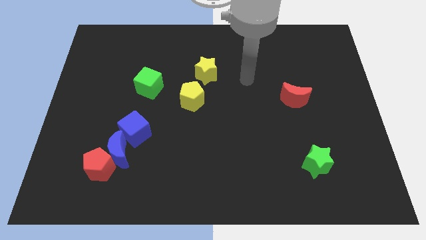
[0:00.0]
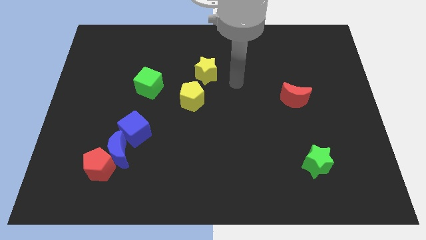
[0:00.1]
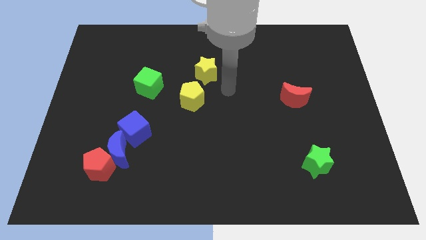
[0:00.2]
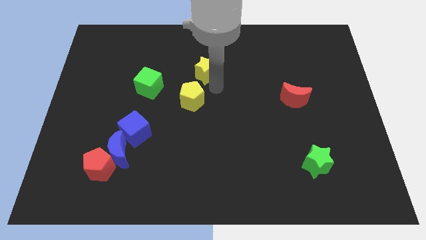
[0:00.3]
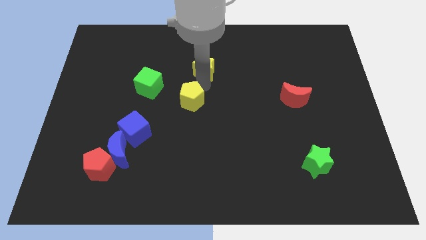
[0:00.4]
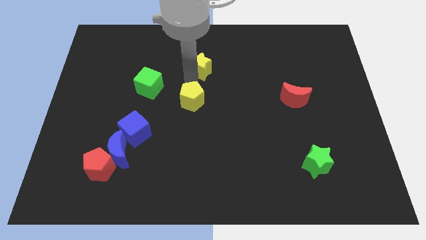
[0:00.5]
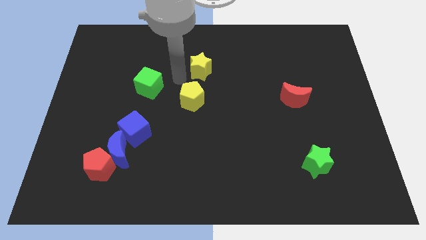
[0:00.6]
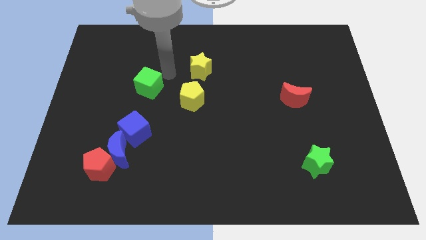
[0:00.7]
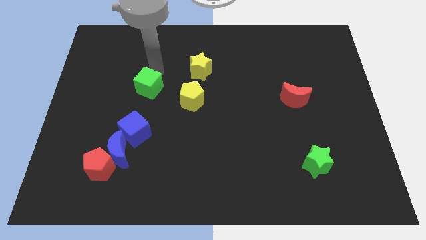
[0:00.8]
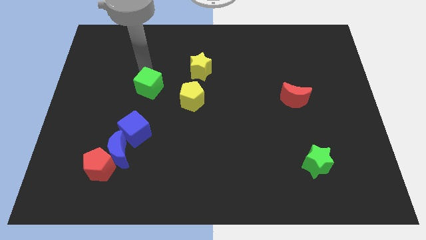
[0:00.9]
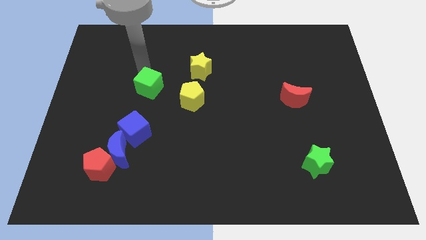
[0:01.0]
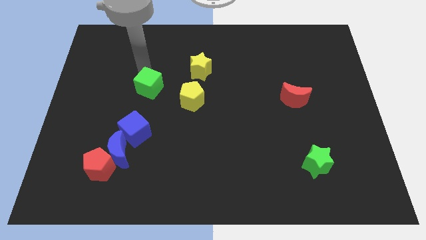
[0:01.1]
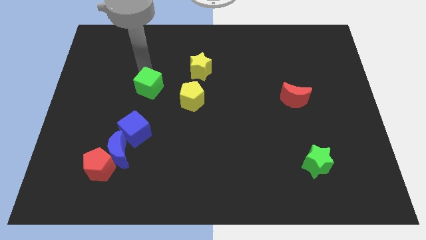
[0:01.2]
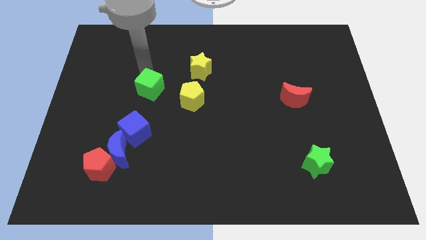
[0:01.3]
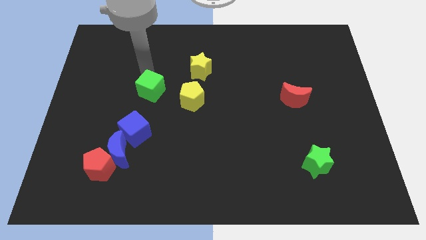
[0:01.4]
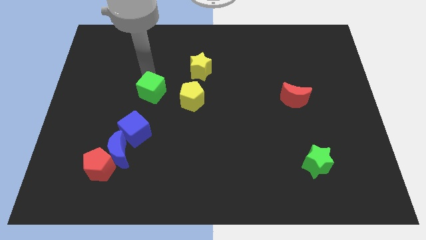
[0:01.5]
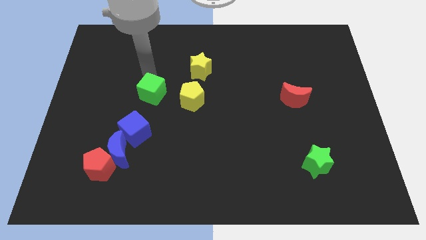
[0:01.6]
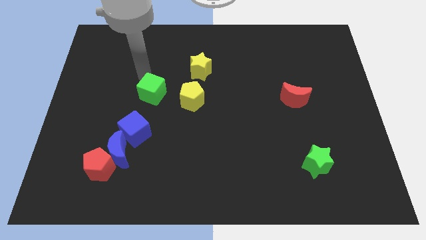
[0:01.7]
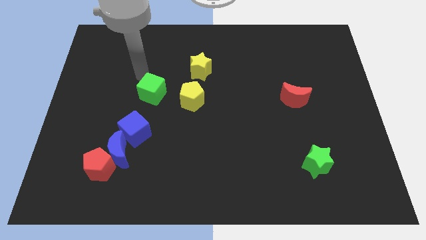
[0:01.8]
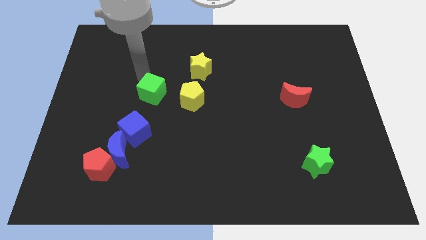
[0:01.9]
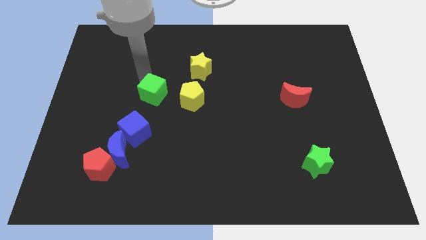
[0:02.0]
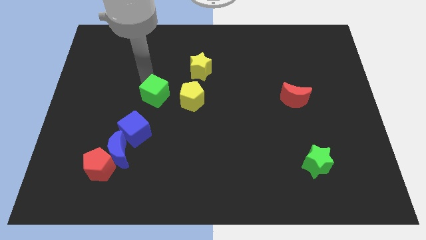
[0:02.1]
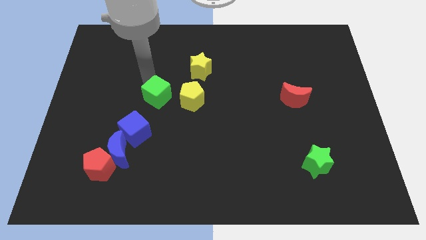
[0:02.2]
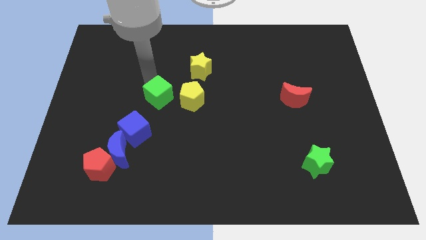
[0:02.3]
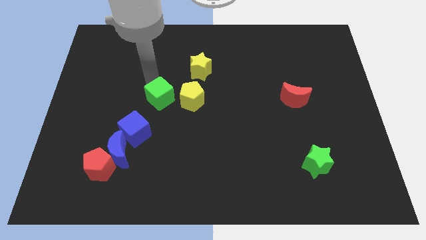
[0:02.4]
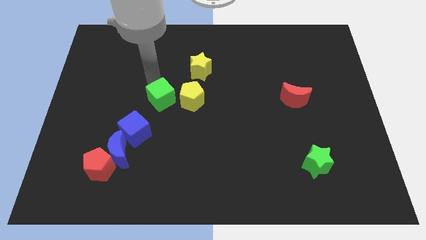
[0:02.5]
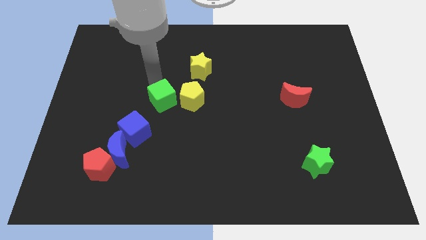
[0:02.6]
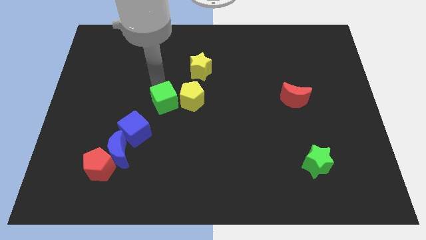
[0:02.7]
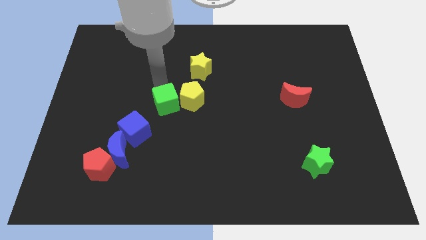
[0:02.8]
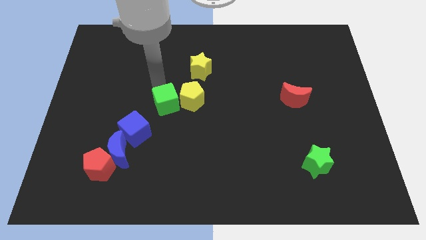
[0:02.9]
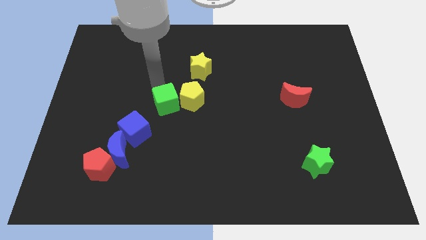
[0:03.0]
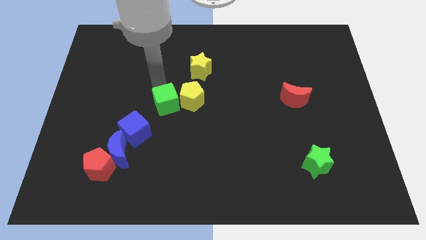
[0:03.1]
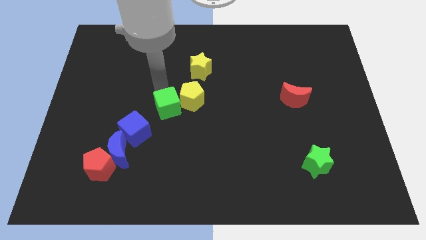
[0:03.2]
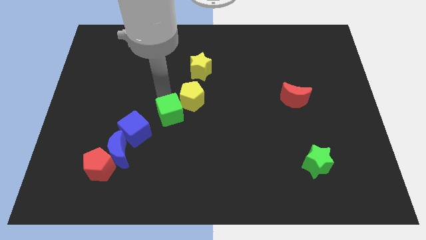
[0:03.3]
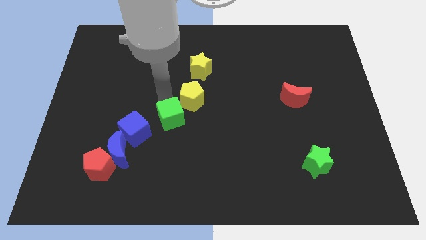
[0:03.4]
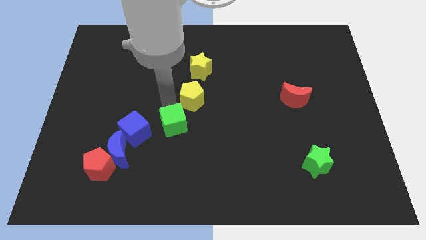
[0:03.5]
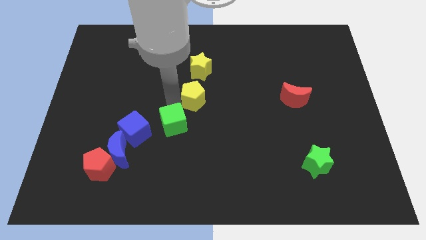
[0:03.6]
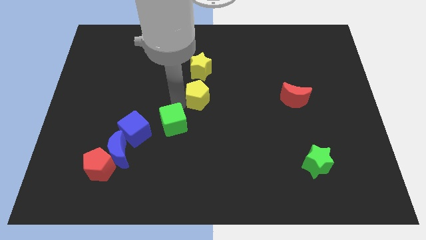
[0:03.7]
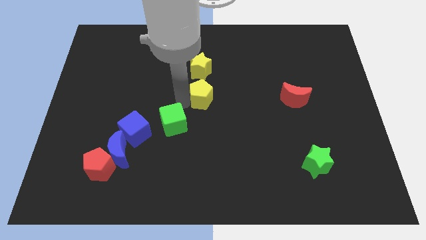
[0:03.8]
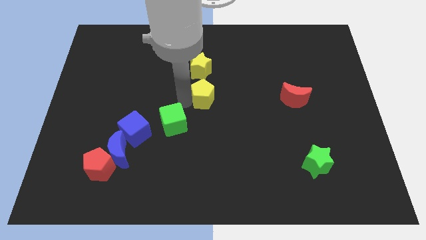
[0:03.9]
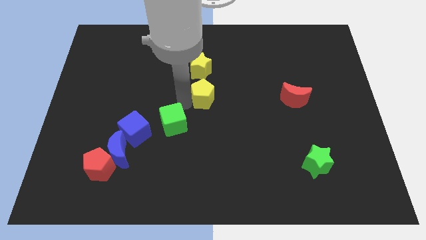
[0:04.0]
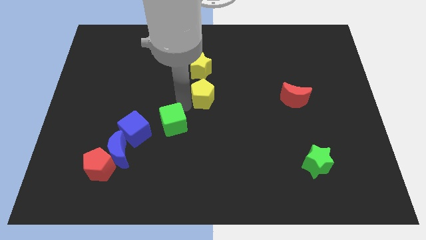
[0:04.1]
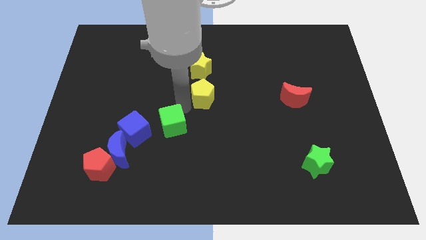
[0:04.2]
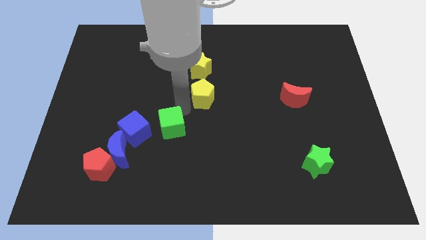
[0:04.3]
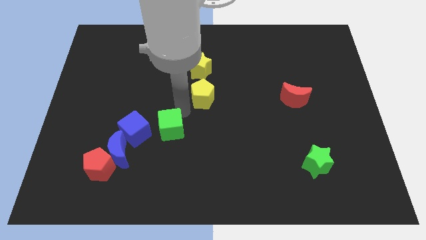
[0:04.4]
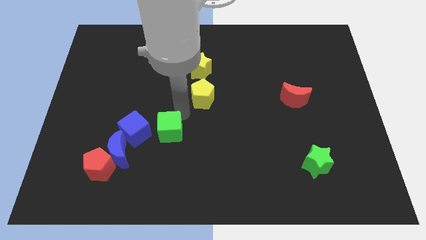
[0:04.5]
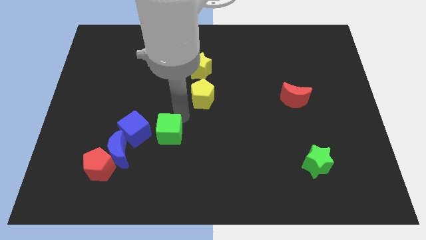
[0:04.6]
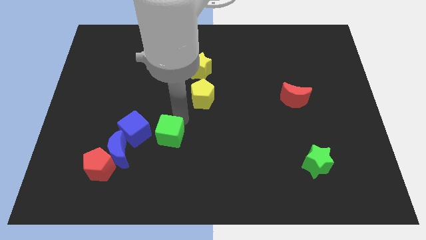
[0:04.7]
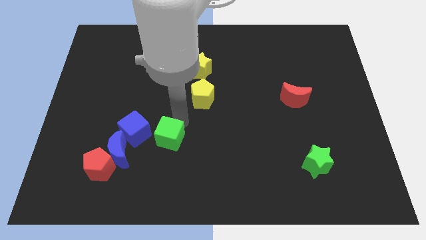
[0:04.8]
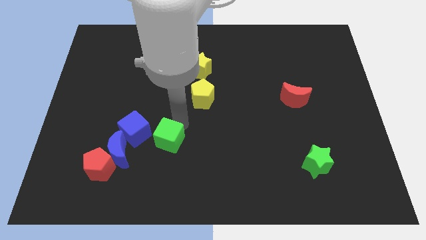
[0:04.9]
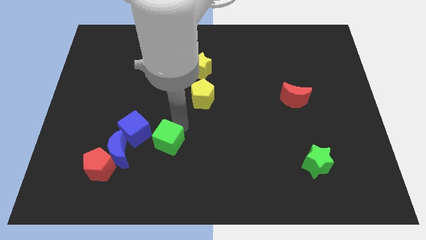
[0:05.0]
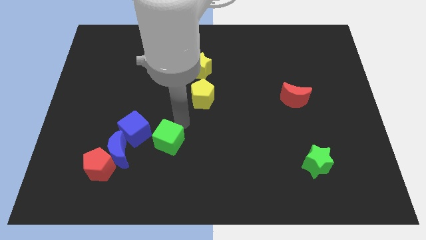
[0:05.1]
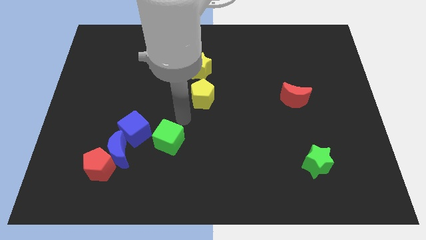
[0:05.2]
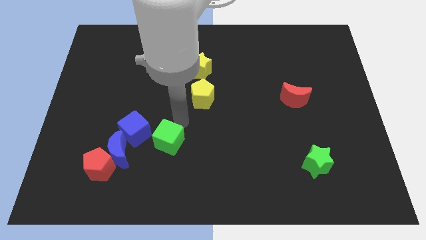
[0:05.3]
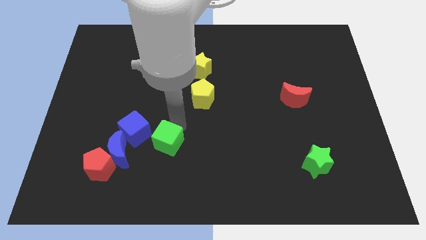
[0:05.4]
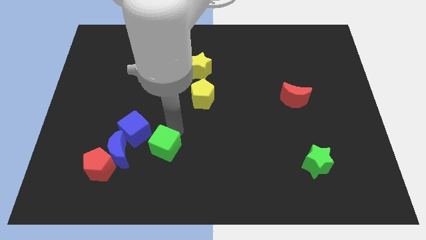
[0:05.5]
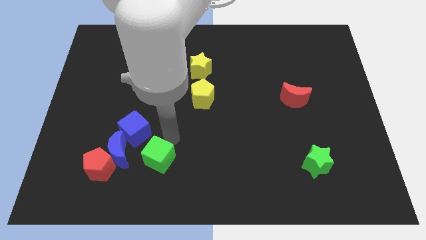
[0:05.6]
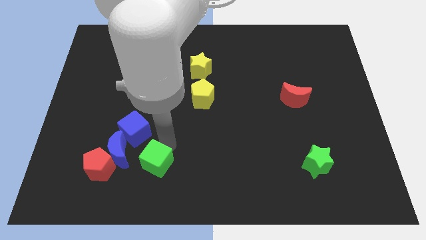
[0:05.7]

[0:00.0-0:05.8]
slide the green cube to the bottom right side of the blue moon
